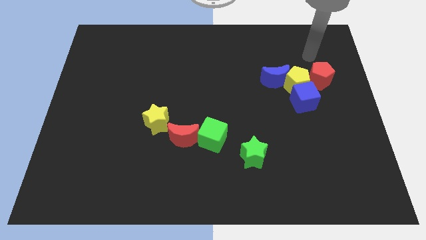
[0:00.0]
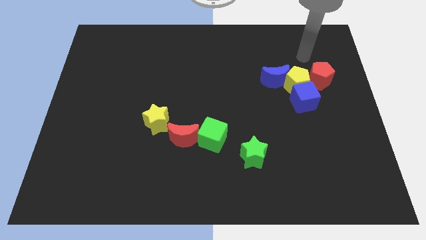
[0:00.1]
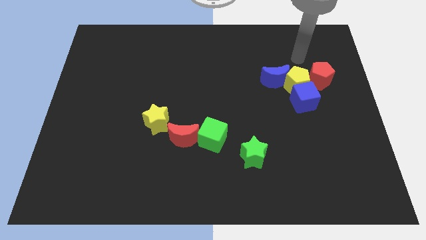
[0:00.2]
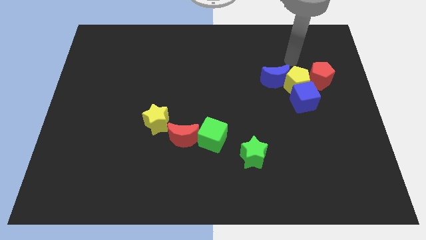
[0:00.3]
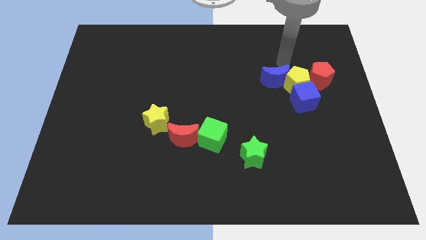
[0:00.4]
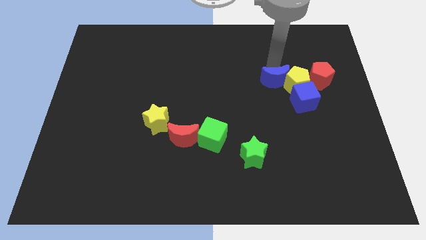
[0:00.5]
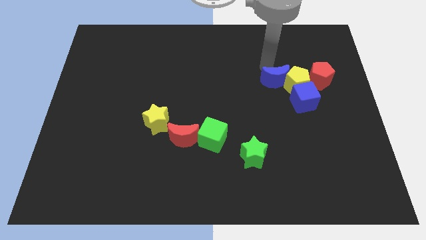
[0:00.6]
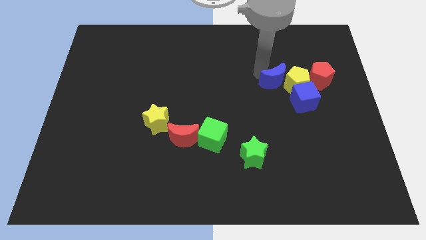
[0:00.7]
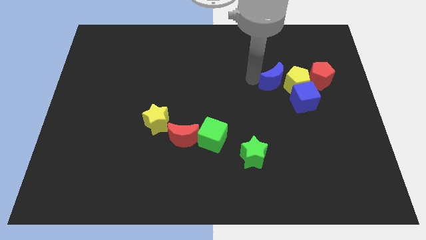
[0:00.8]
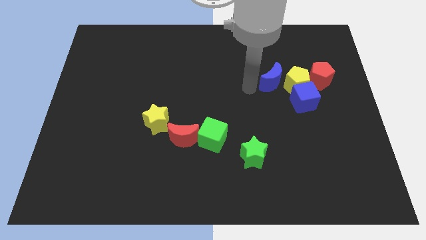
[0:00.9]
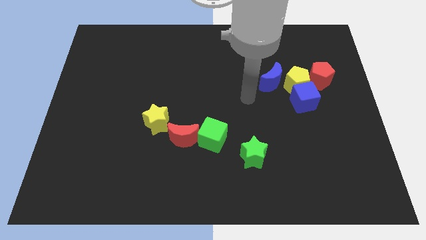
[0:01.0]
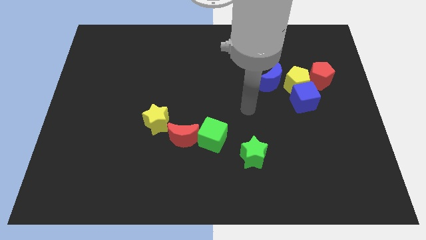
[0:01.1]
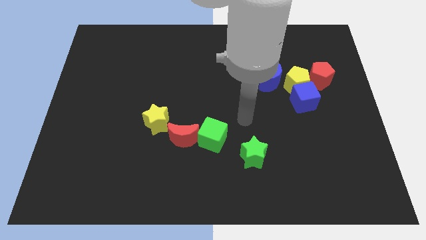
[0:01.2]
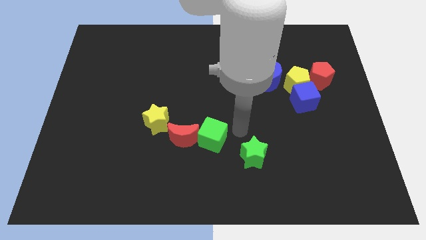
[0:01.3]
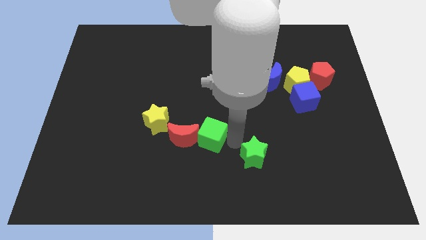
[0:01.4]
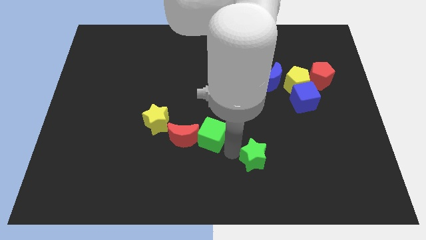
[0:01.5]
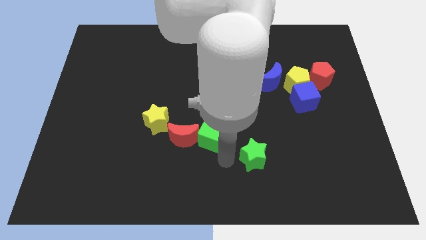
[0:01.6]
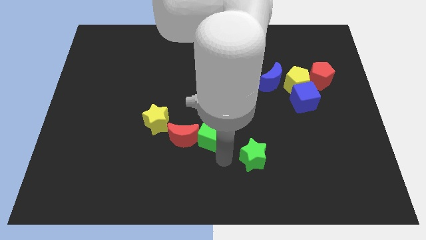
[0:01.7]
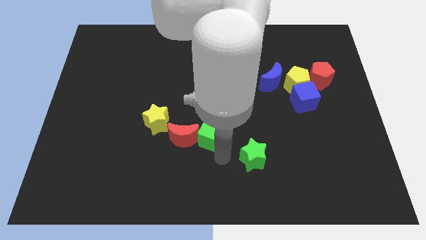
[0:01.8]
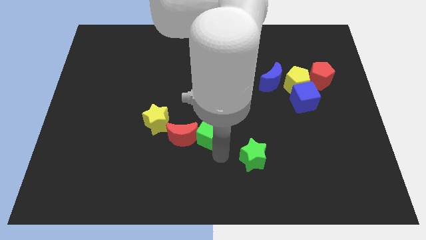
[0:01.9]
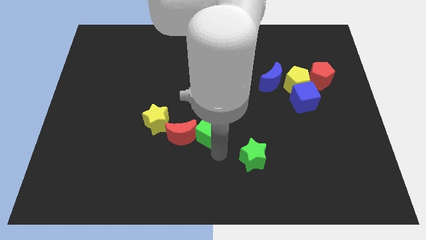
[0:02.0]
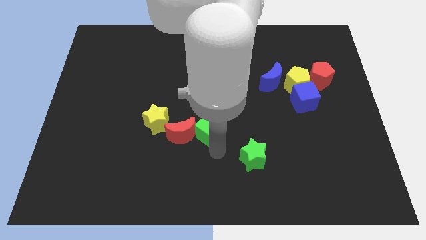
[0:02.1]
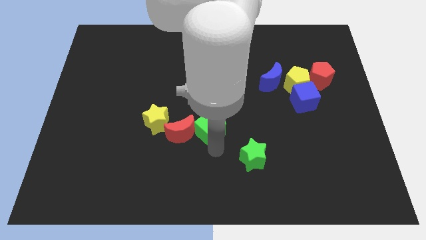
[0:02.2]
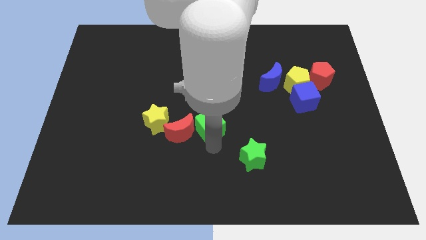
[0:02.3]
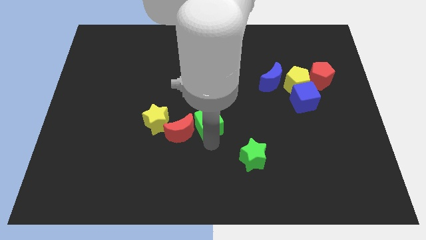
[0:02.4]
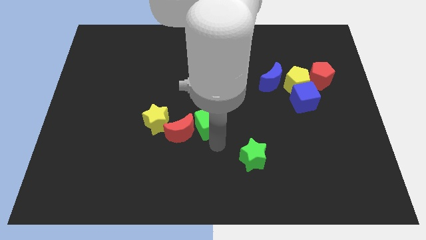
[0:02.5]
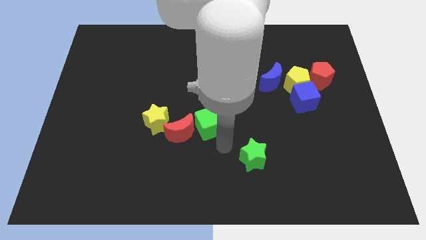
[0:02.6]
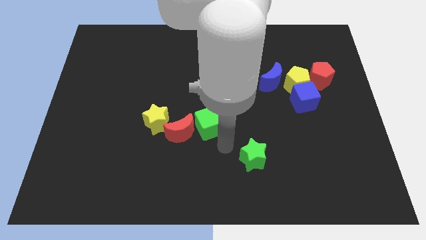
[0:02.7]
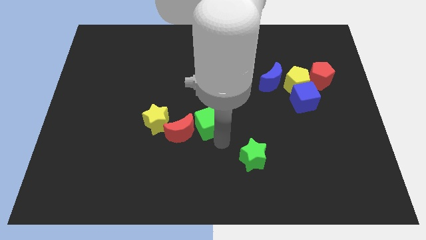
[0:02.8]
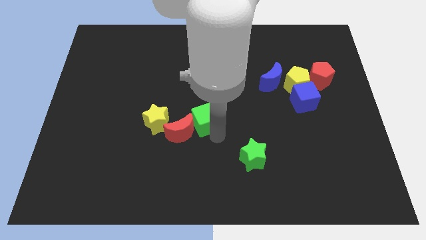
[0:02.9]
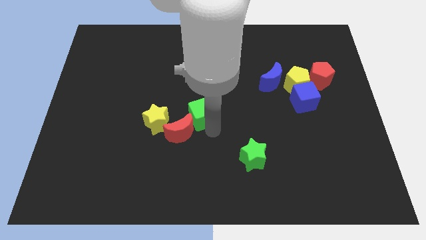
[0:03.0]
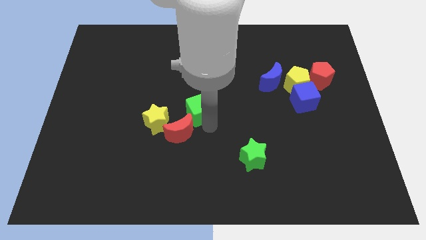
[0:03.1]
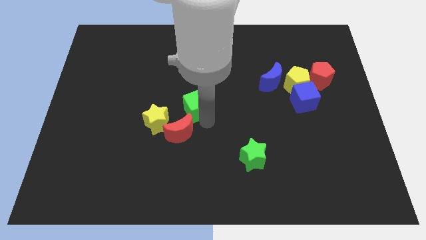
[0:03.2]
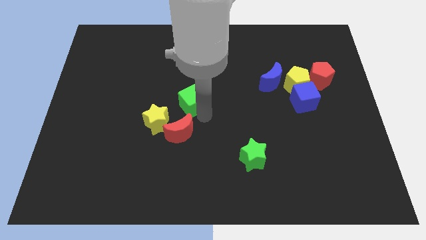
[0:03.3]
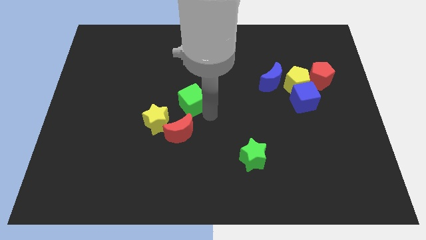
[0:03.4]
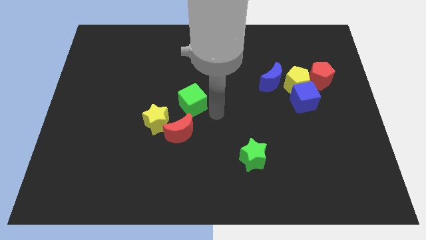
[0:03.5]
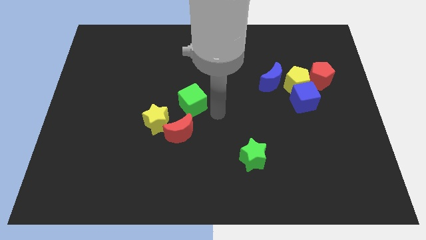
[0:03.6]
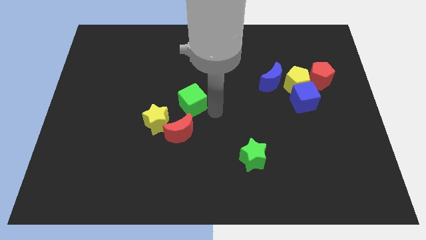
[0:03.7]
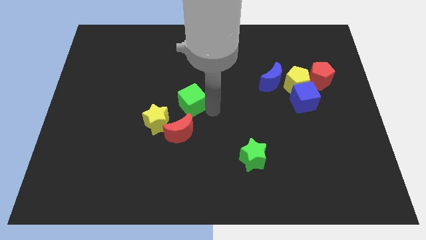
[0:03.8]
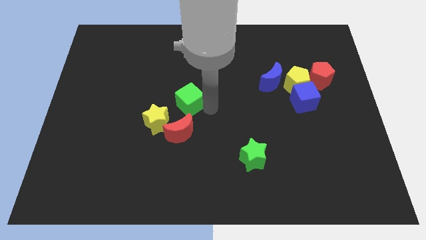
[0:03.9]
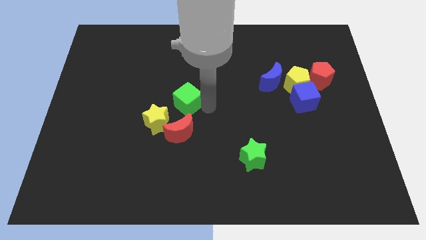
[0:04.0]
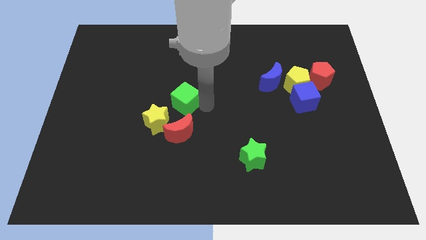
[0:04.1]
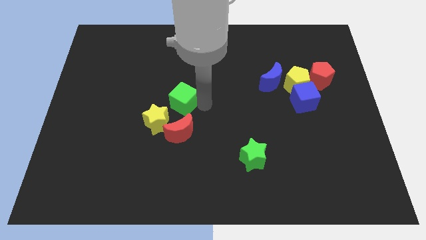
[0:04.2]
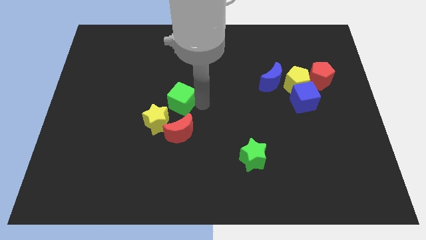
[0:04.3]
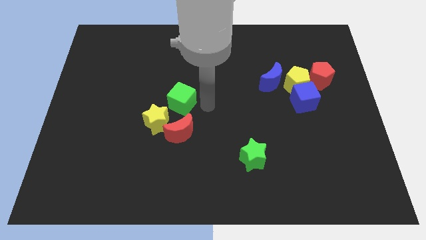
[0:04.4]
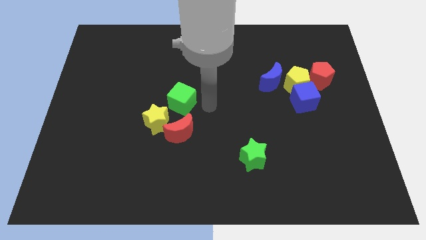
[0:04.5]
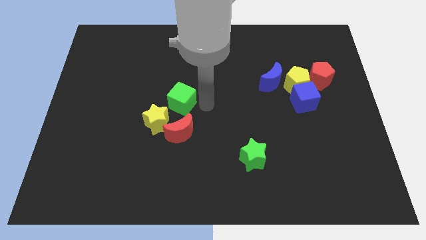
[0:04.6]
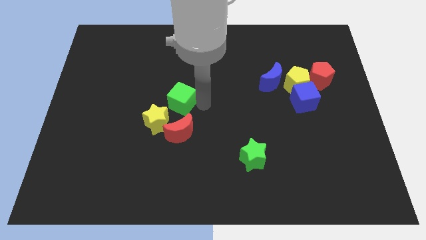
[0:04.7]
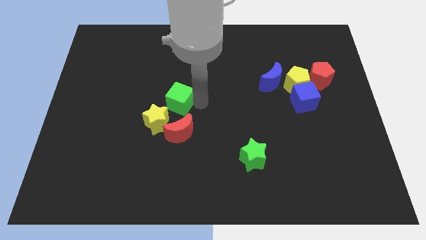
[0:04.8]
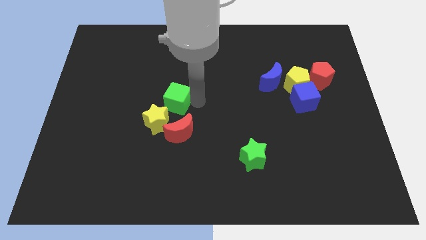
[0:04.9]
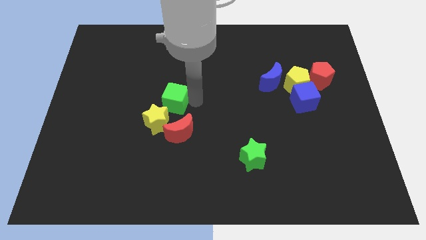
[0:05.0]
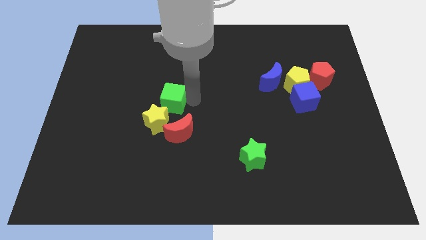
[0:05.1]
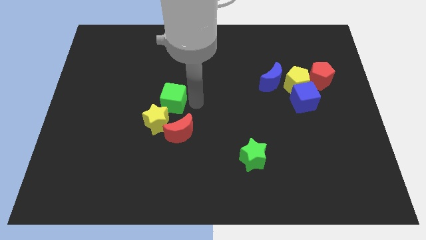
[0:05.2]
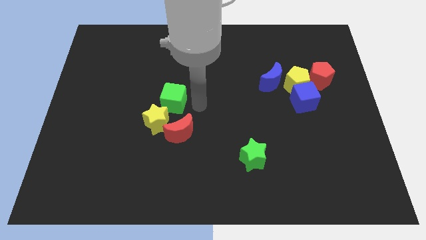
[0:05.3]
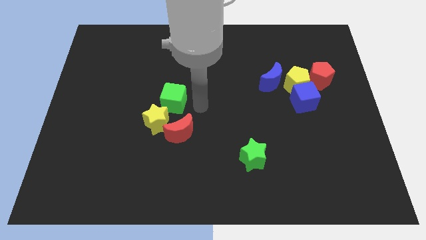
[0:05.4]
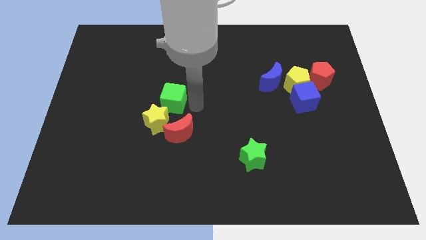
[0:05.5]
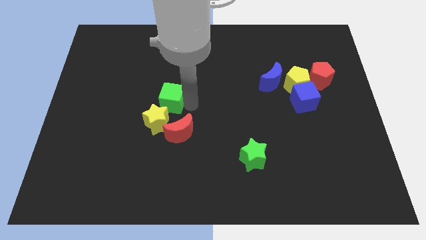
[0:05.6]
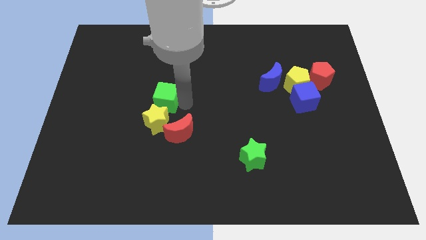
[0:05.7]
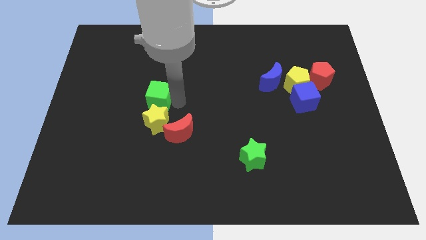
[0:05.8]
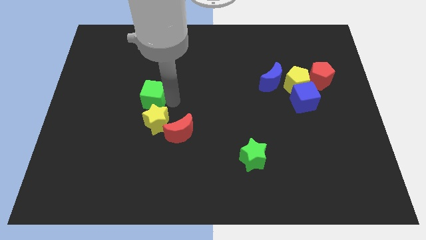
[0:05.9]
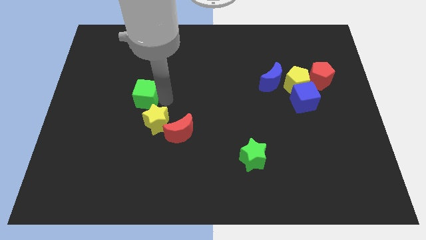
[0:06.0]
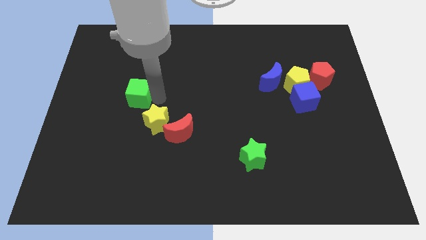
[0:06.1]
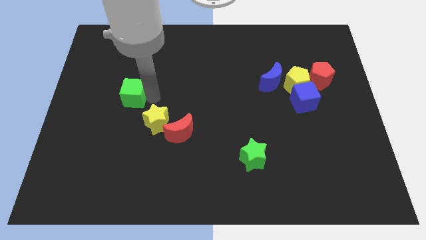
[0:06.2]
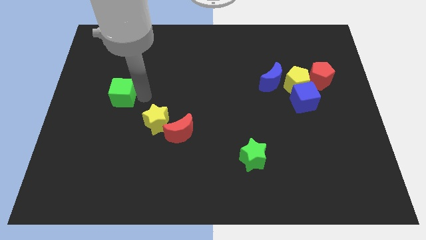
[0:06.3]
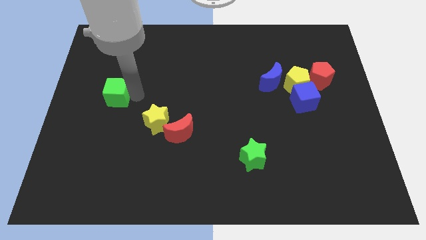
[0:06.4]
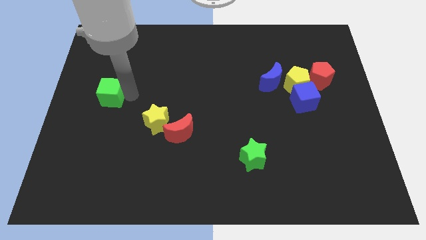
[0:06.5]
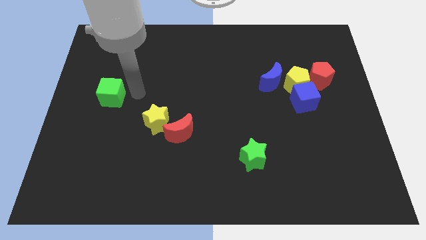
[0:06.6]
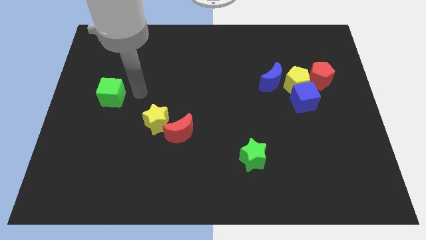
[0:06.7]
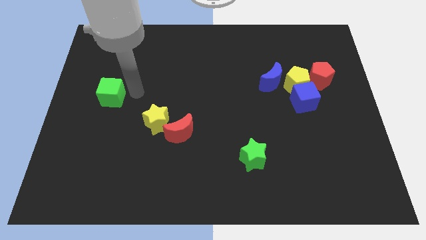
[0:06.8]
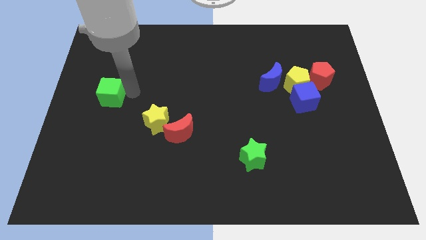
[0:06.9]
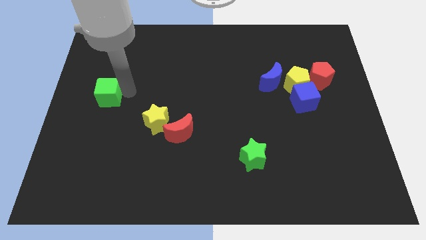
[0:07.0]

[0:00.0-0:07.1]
push the green cube to the left side
